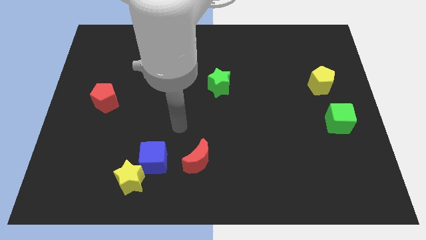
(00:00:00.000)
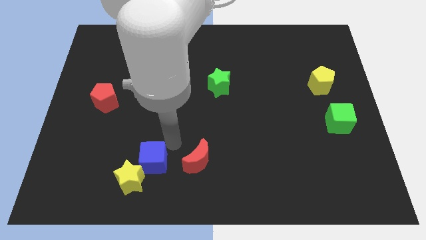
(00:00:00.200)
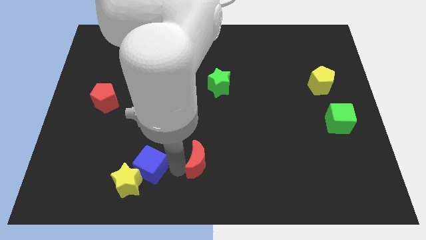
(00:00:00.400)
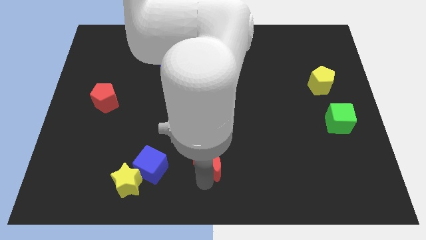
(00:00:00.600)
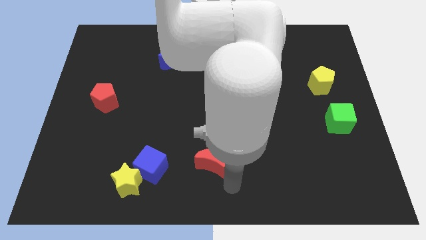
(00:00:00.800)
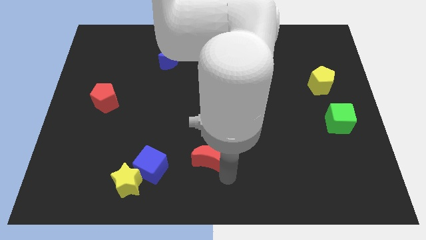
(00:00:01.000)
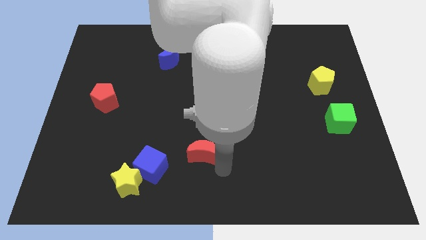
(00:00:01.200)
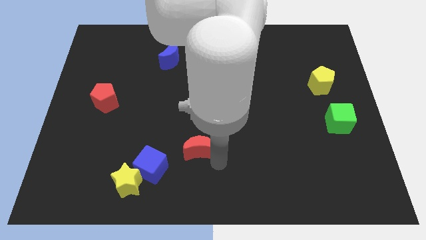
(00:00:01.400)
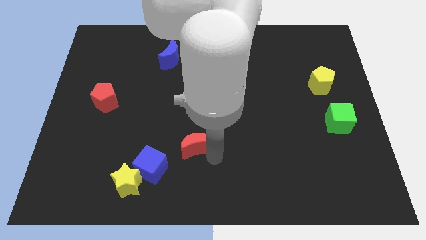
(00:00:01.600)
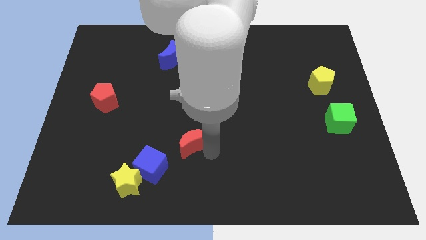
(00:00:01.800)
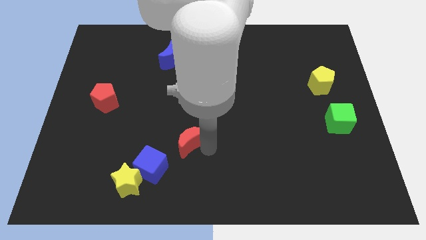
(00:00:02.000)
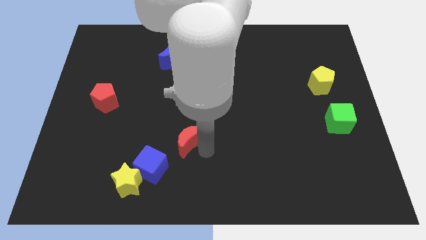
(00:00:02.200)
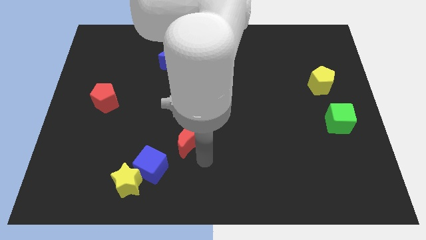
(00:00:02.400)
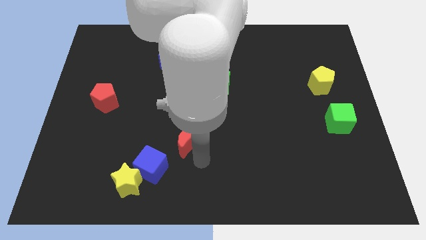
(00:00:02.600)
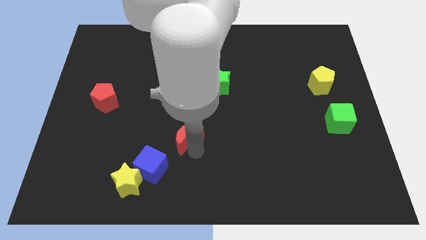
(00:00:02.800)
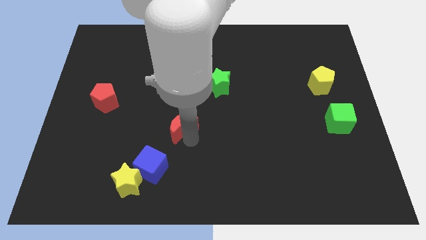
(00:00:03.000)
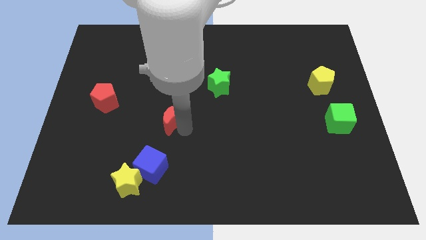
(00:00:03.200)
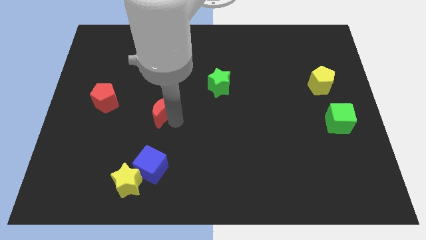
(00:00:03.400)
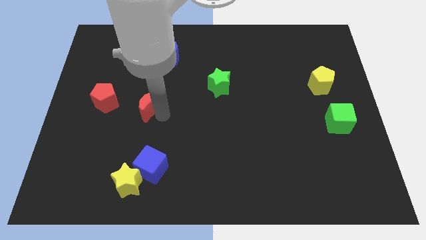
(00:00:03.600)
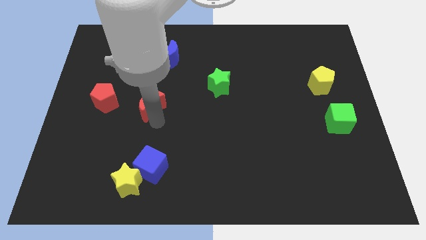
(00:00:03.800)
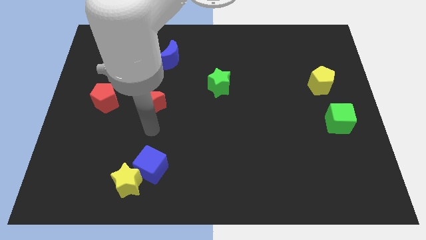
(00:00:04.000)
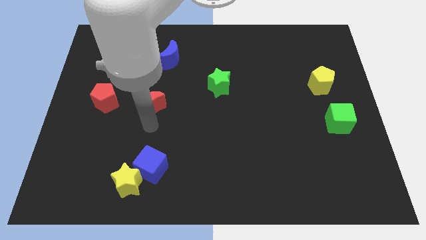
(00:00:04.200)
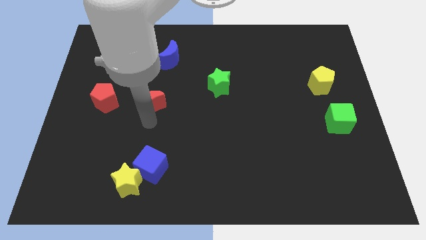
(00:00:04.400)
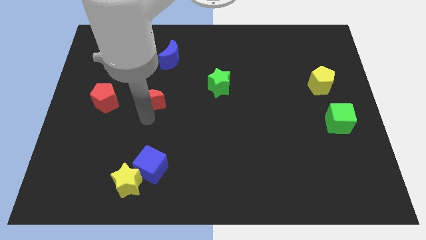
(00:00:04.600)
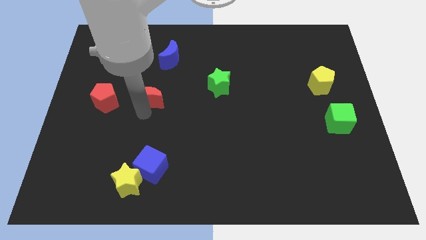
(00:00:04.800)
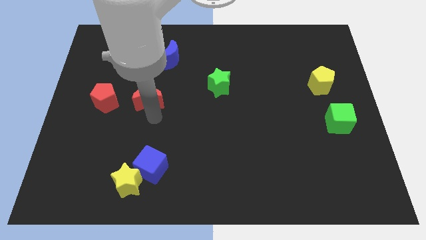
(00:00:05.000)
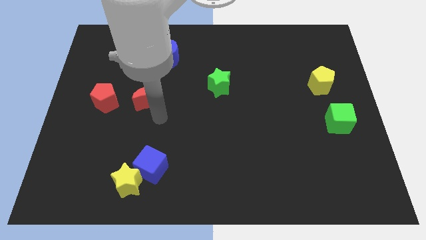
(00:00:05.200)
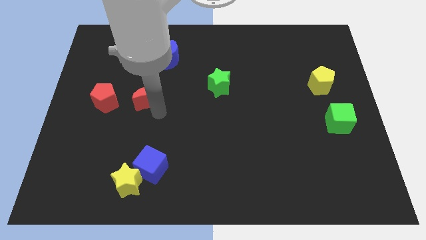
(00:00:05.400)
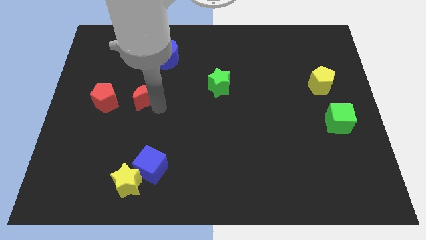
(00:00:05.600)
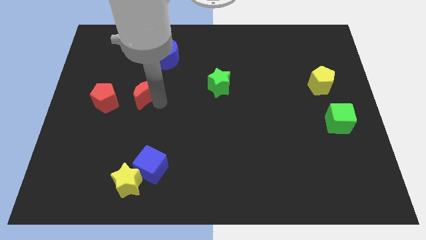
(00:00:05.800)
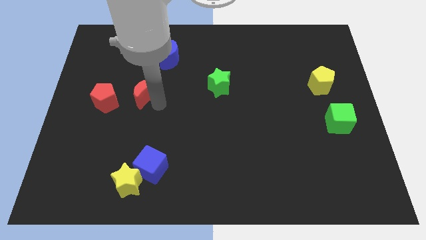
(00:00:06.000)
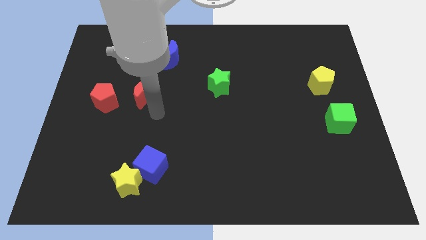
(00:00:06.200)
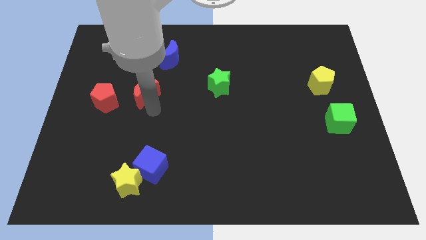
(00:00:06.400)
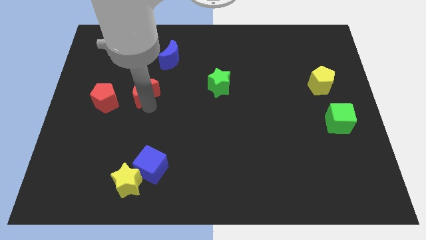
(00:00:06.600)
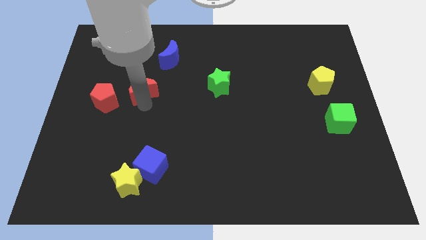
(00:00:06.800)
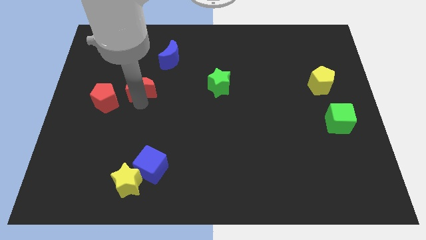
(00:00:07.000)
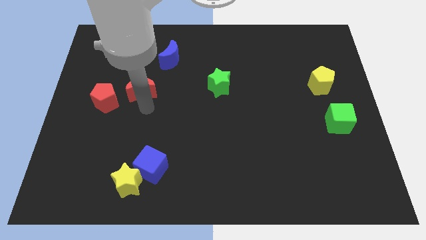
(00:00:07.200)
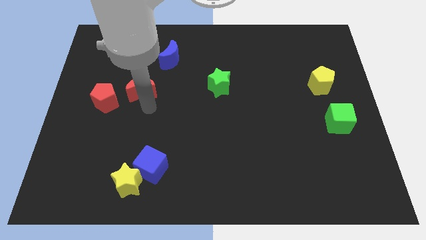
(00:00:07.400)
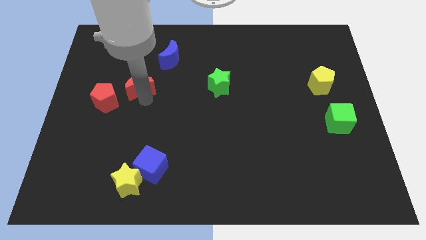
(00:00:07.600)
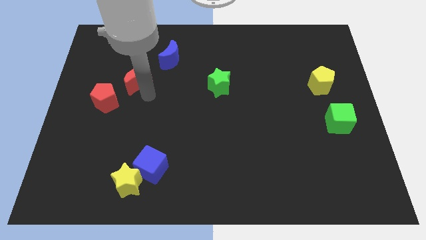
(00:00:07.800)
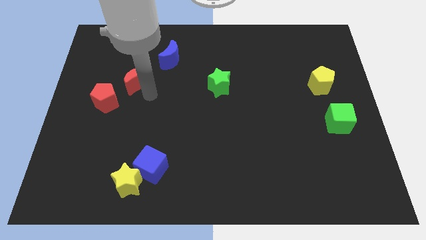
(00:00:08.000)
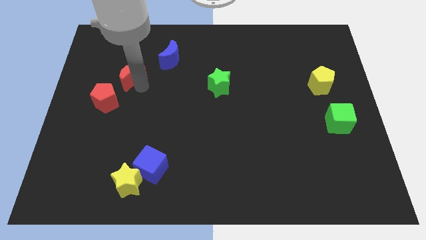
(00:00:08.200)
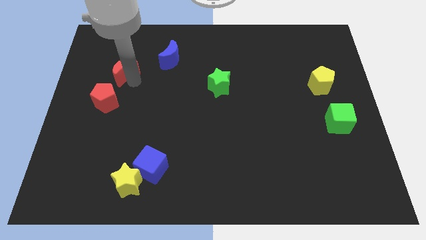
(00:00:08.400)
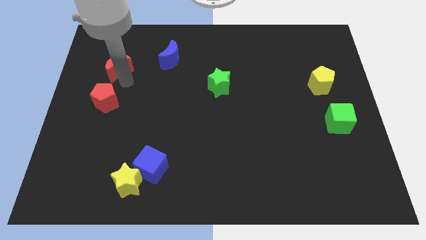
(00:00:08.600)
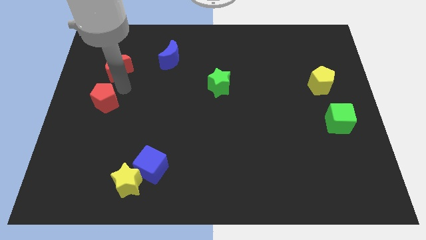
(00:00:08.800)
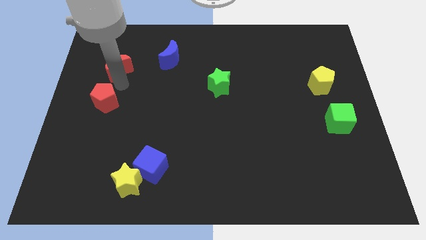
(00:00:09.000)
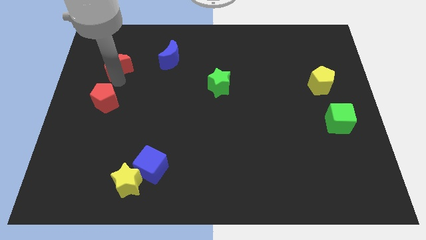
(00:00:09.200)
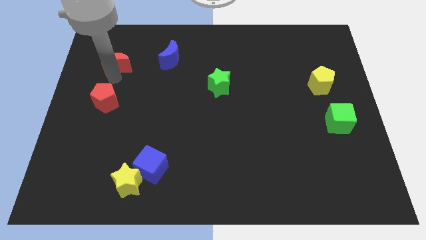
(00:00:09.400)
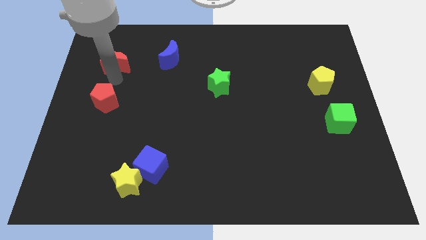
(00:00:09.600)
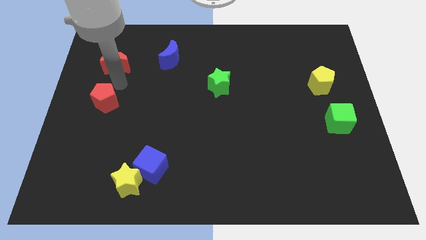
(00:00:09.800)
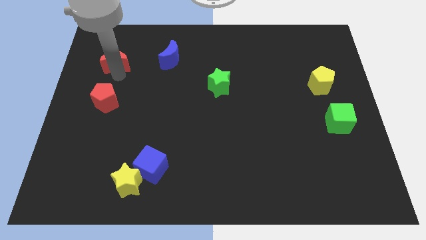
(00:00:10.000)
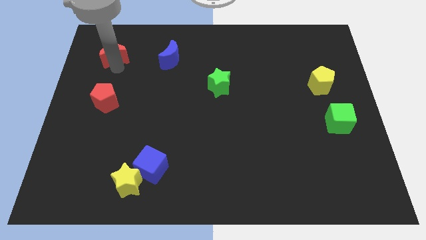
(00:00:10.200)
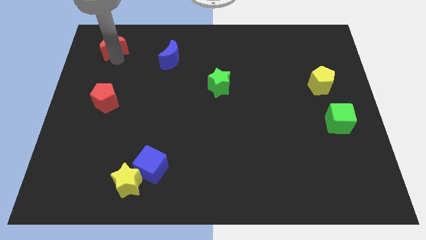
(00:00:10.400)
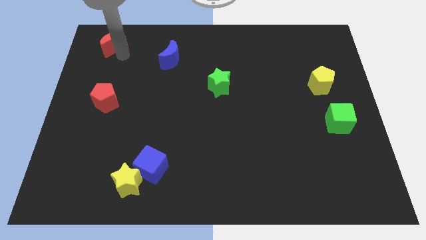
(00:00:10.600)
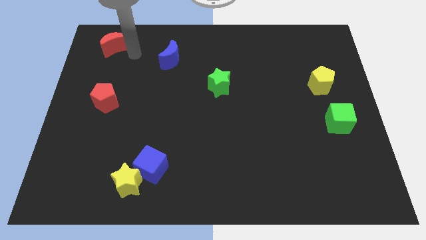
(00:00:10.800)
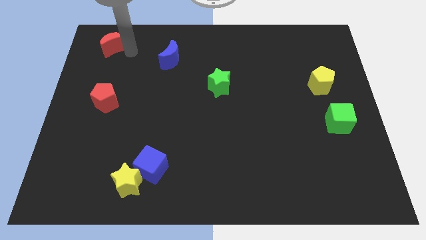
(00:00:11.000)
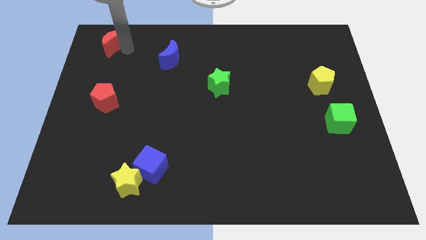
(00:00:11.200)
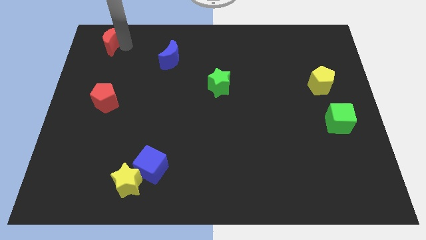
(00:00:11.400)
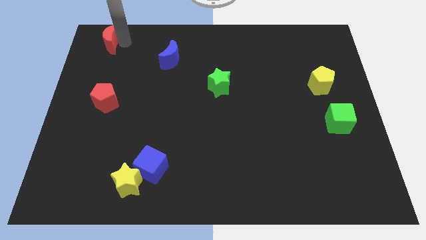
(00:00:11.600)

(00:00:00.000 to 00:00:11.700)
push the red moon to the top left of the board
